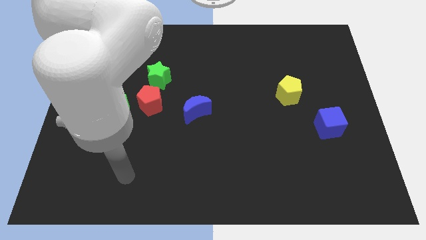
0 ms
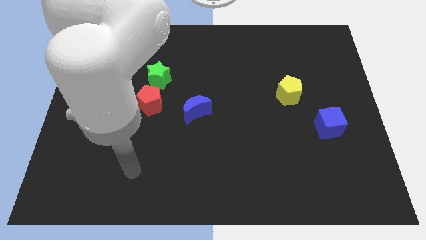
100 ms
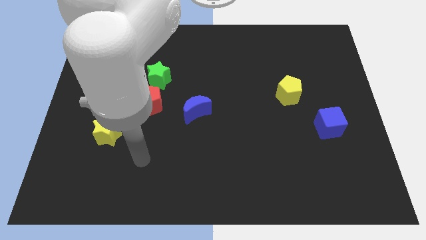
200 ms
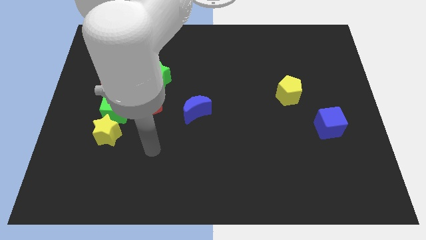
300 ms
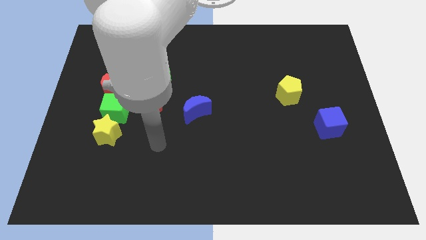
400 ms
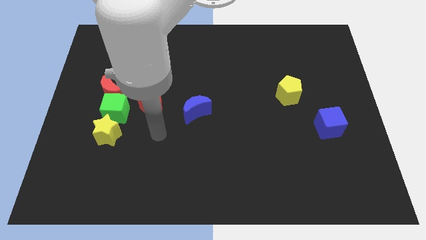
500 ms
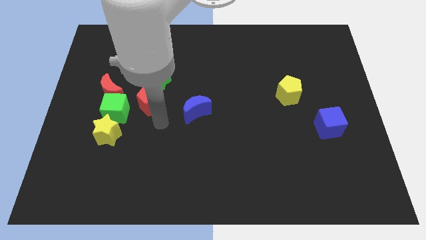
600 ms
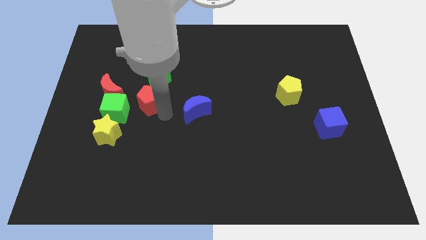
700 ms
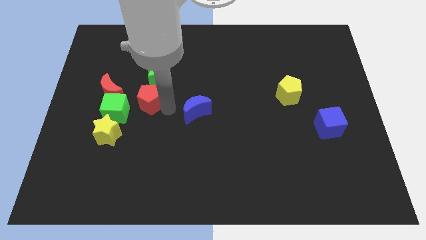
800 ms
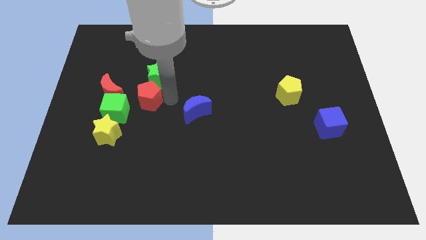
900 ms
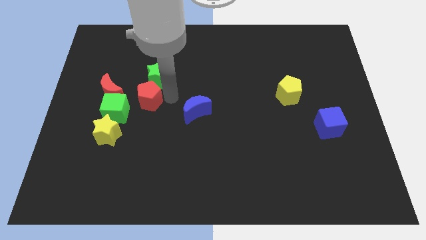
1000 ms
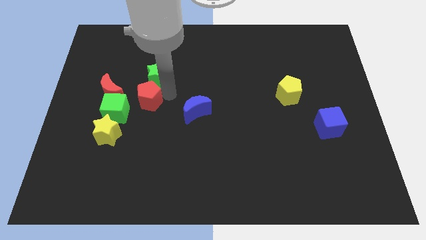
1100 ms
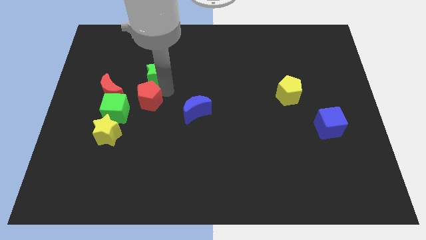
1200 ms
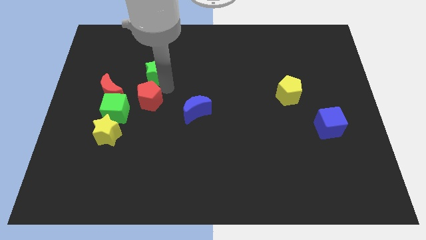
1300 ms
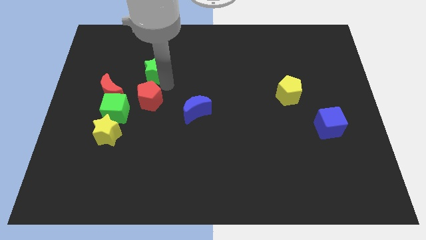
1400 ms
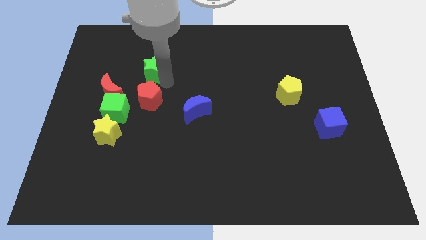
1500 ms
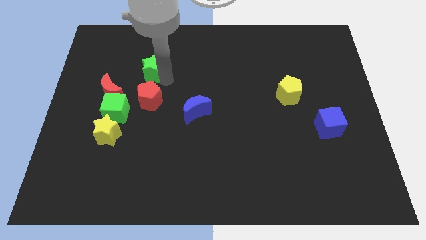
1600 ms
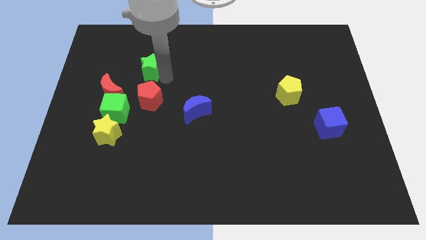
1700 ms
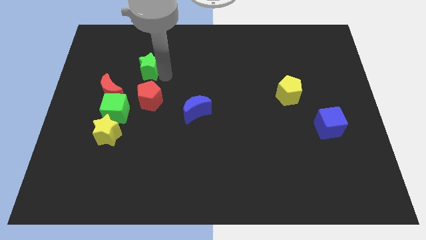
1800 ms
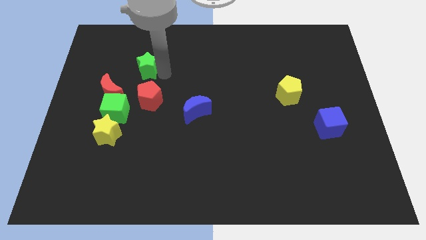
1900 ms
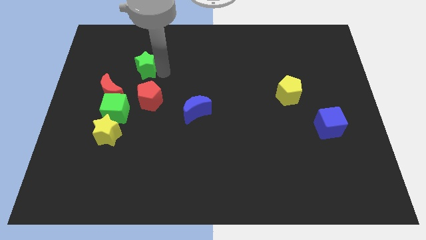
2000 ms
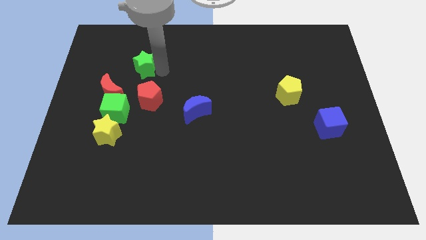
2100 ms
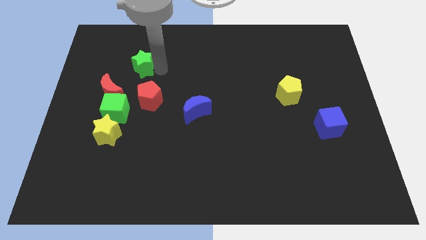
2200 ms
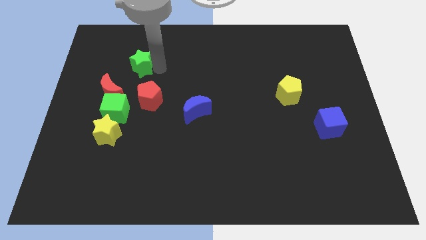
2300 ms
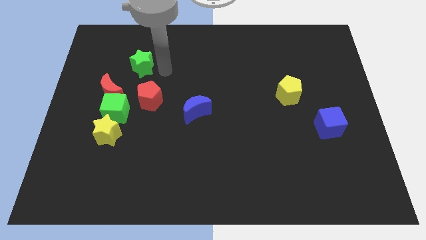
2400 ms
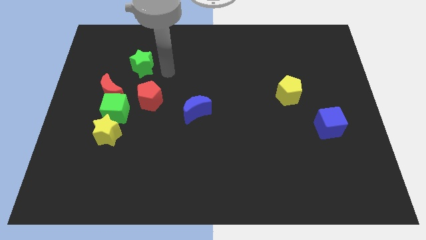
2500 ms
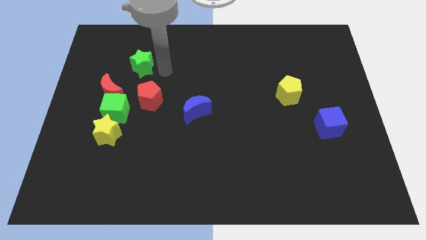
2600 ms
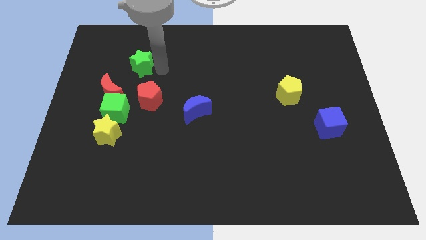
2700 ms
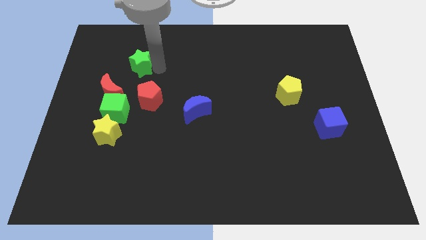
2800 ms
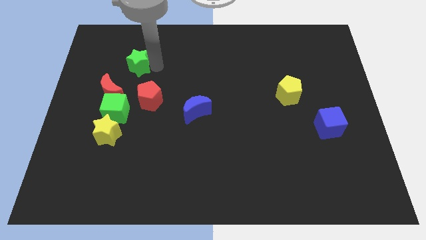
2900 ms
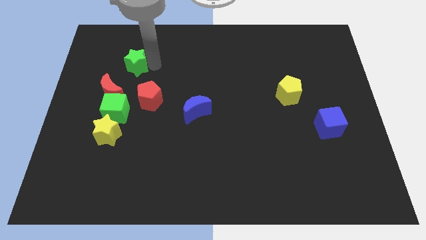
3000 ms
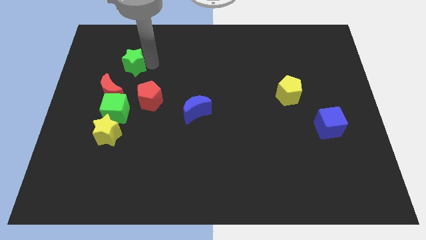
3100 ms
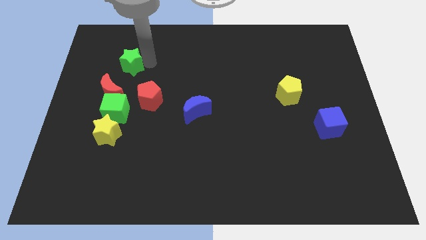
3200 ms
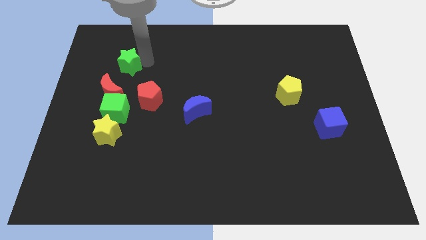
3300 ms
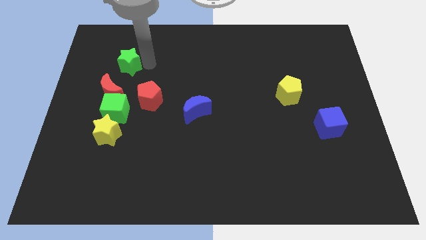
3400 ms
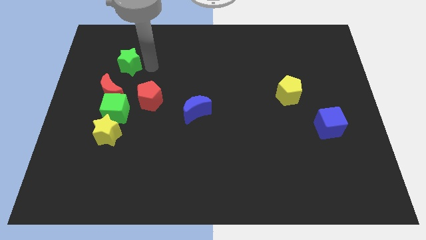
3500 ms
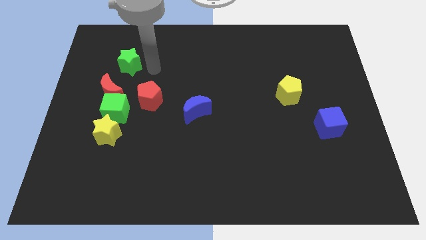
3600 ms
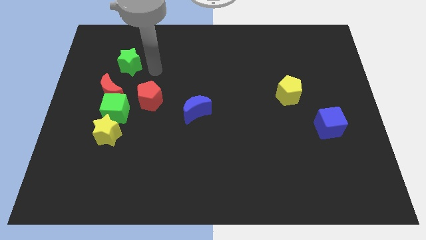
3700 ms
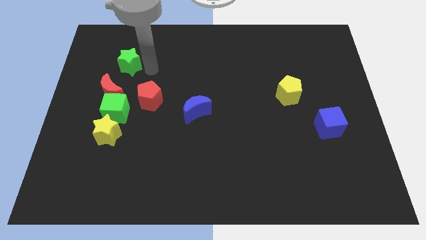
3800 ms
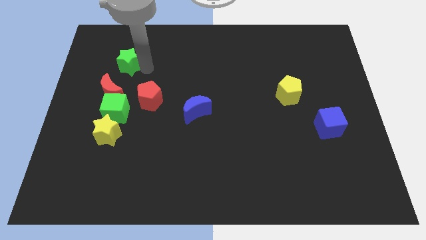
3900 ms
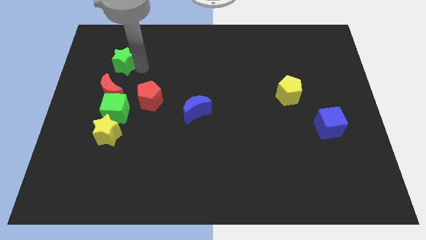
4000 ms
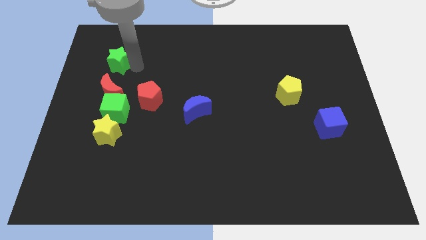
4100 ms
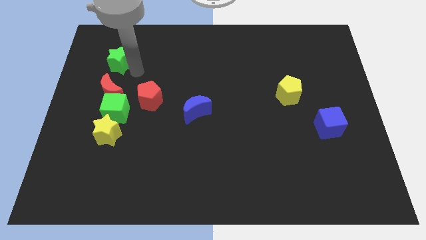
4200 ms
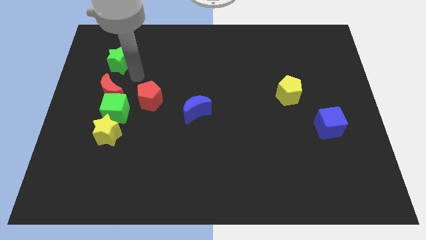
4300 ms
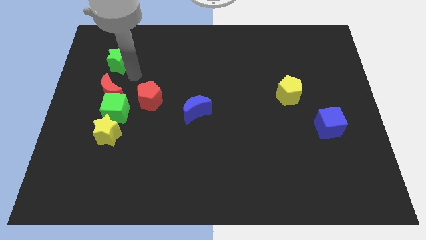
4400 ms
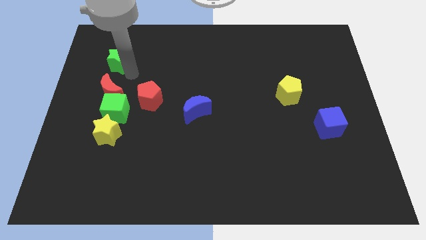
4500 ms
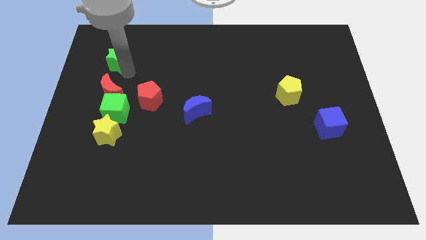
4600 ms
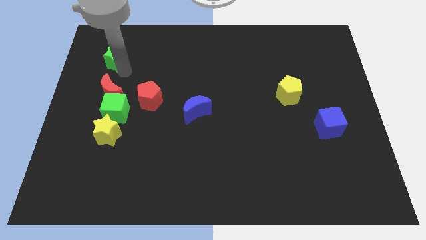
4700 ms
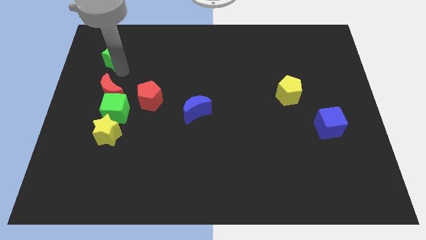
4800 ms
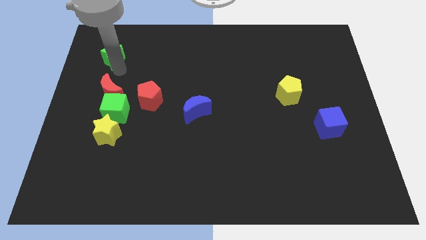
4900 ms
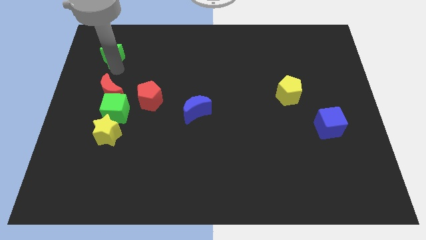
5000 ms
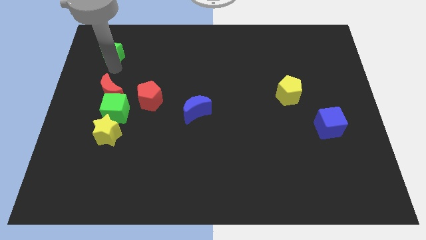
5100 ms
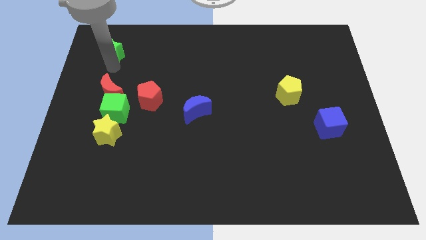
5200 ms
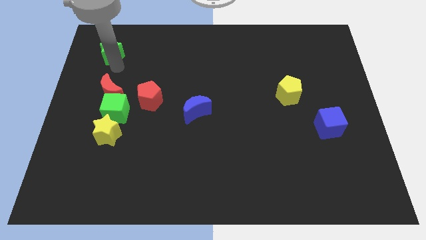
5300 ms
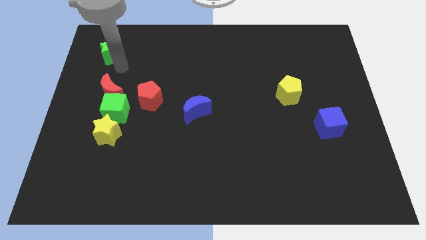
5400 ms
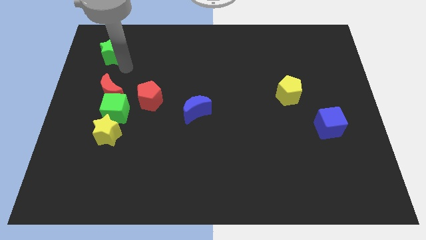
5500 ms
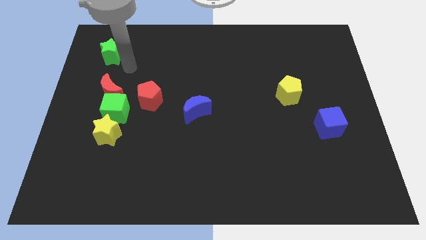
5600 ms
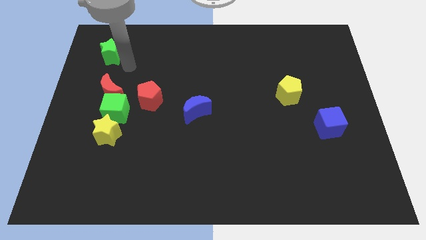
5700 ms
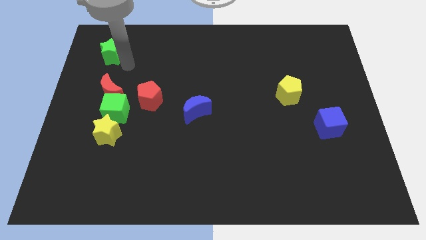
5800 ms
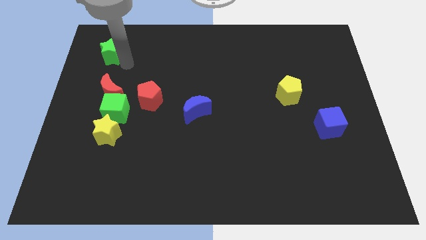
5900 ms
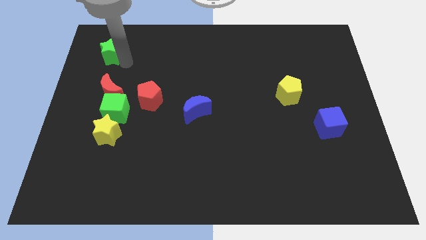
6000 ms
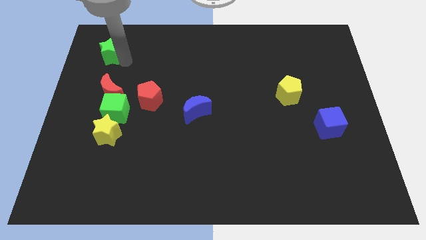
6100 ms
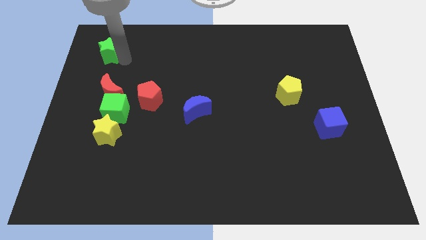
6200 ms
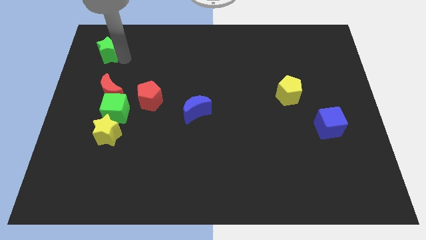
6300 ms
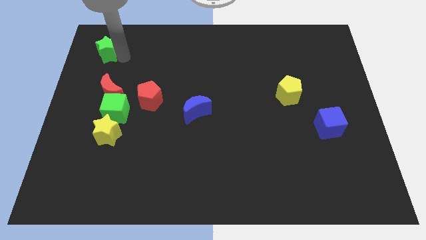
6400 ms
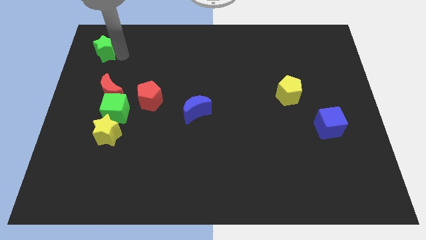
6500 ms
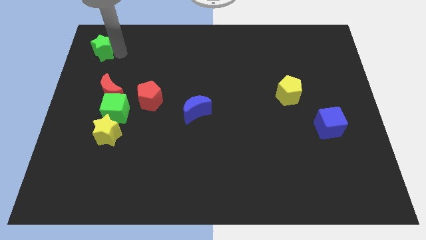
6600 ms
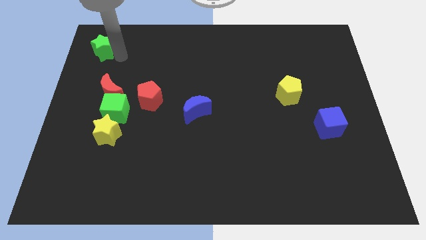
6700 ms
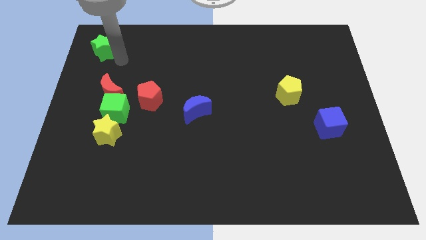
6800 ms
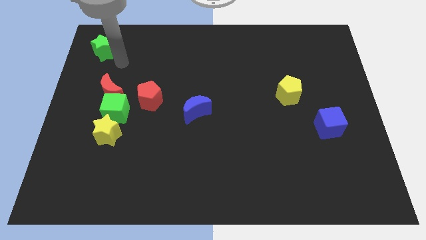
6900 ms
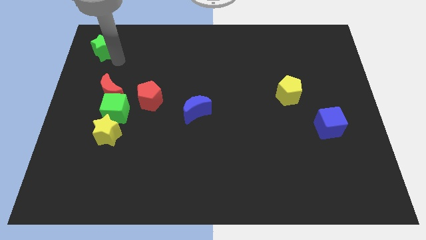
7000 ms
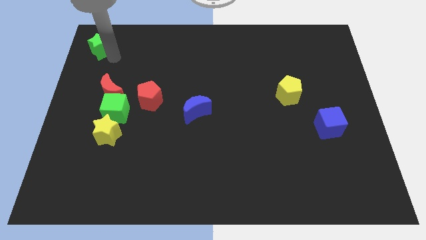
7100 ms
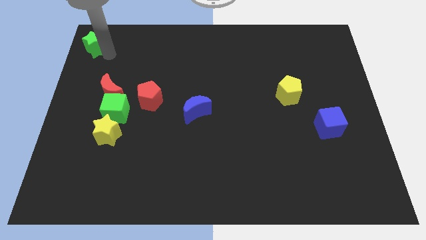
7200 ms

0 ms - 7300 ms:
push the green star to the upper left corner
